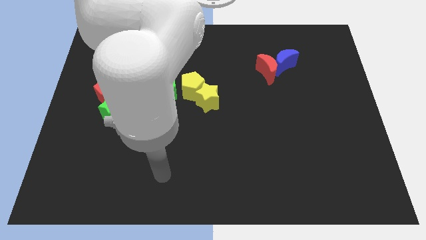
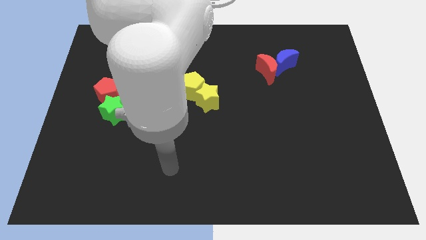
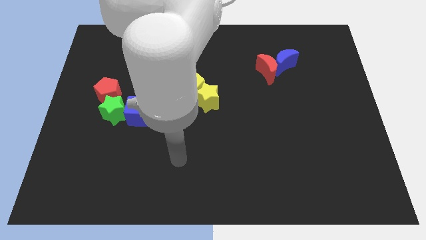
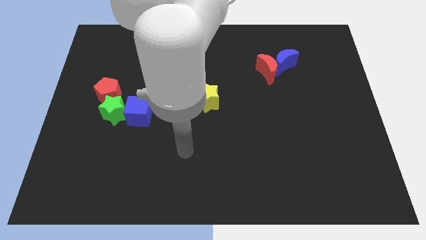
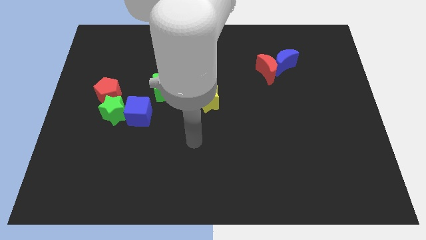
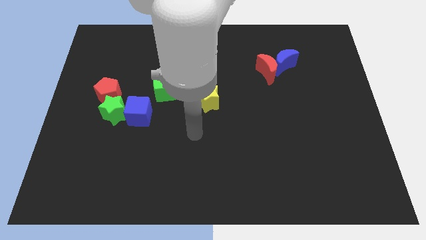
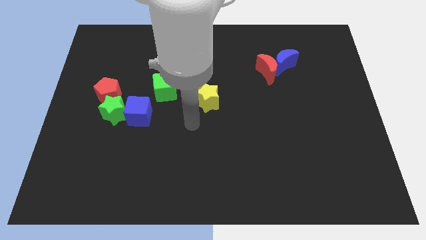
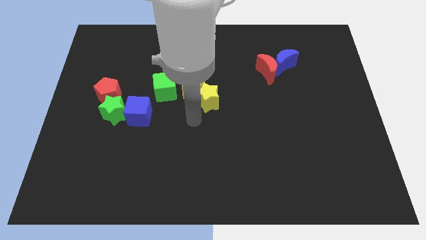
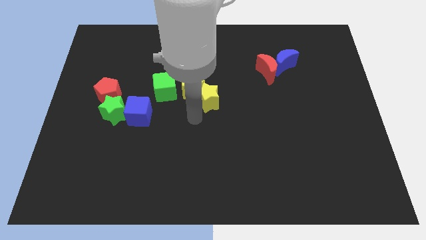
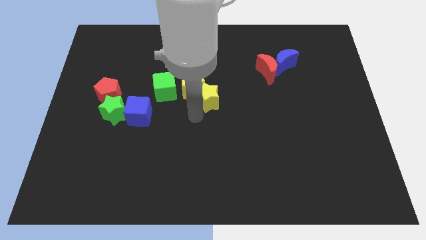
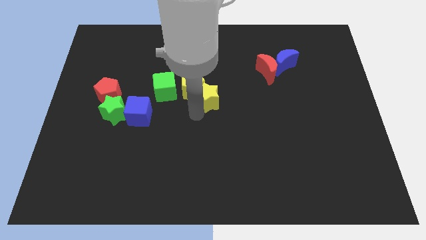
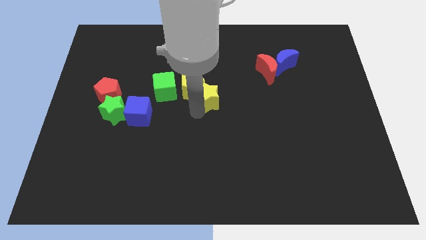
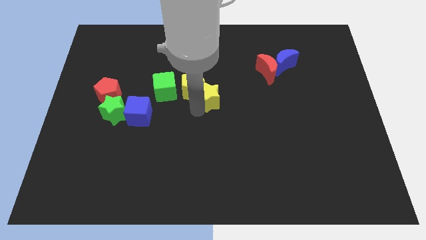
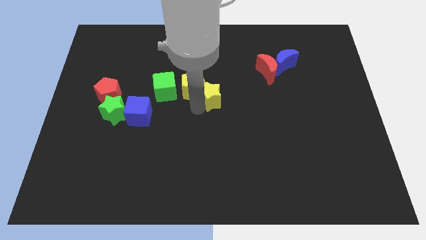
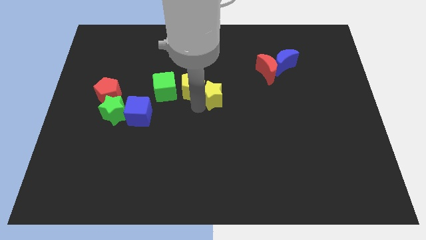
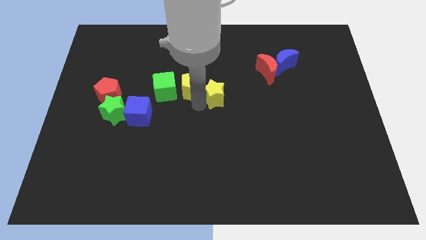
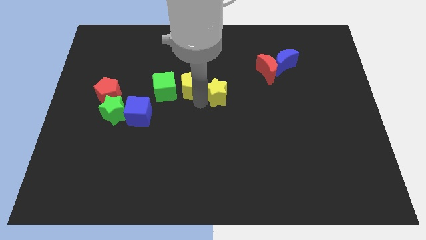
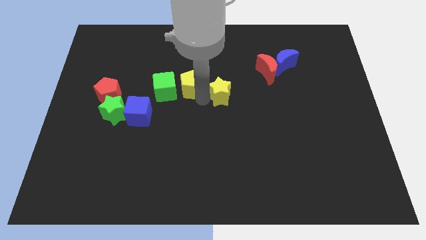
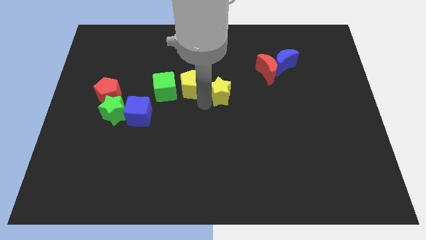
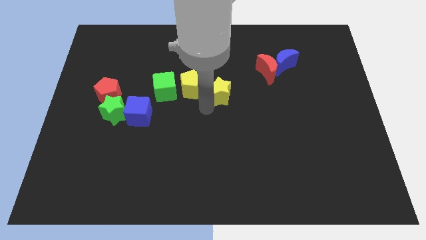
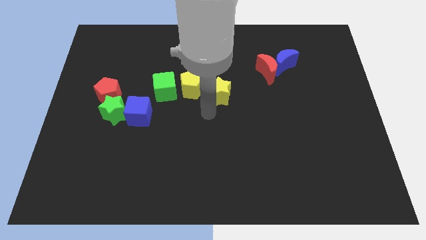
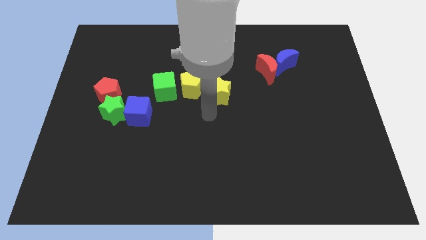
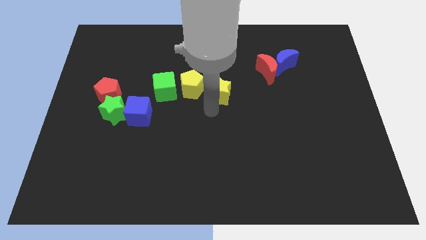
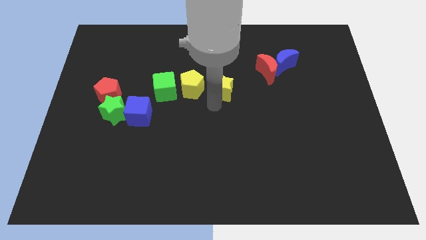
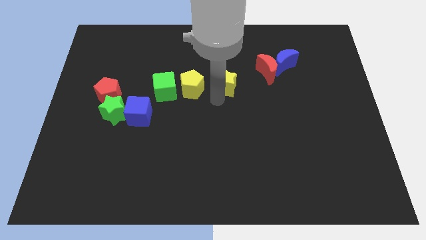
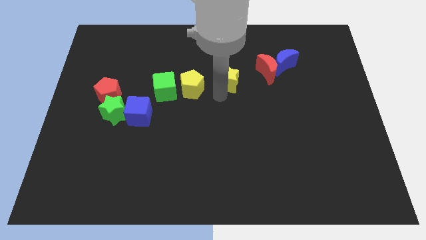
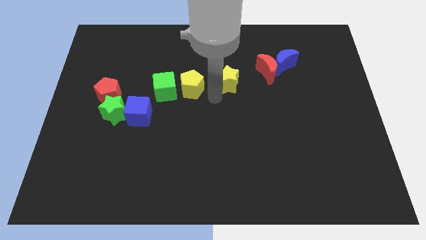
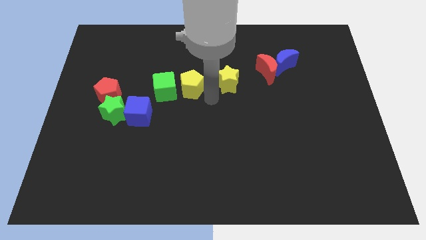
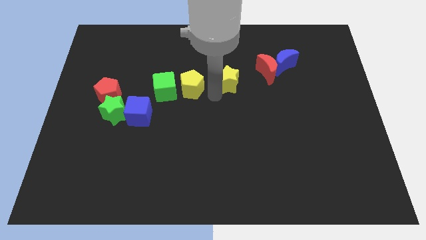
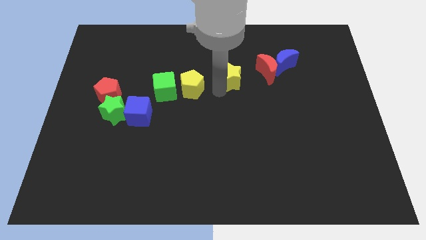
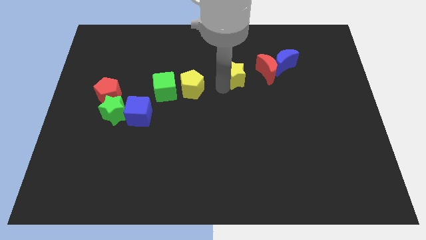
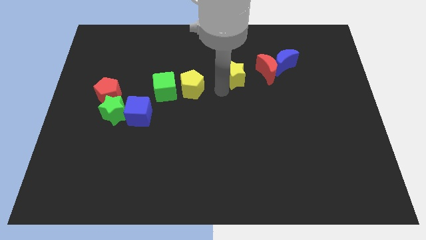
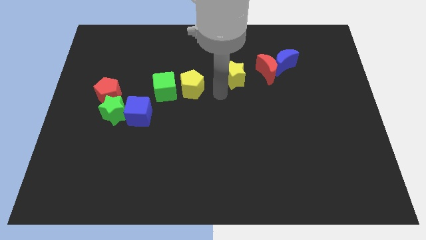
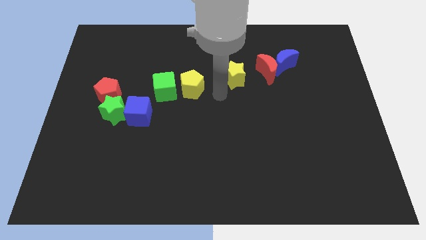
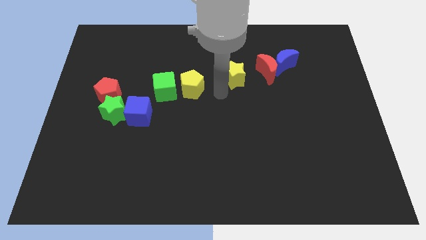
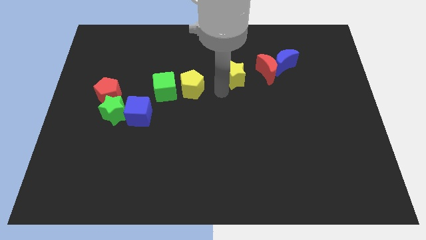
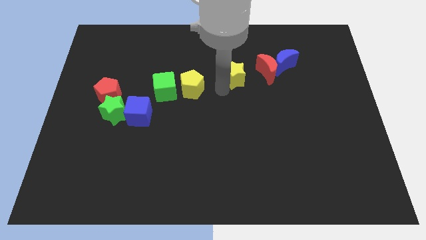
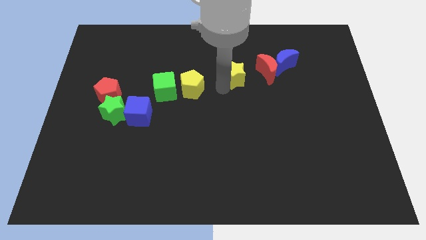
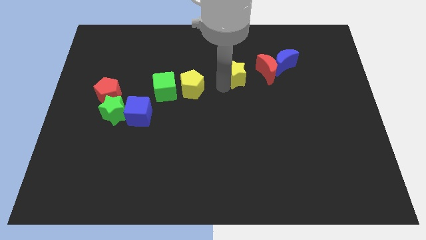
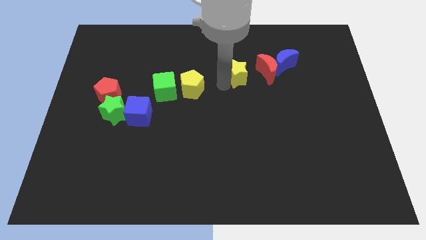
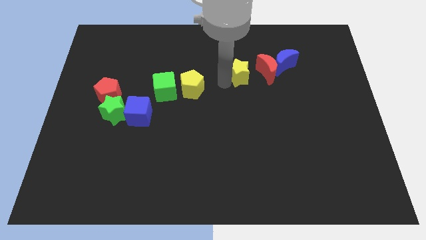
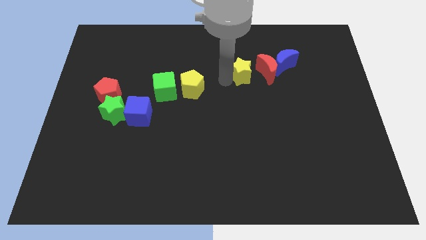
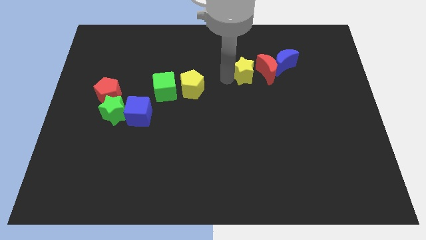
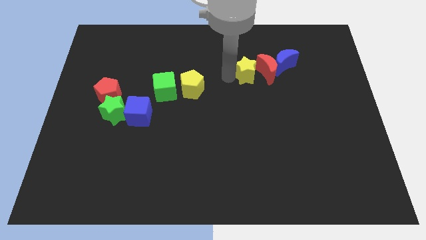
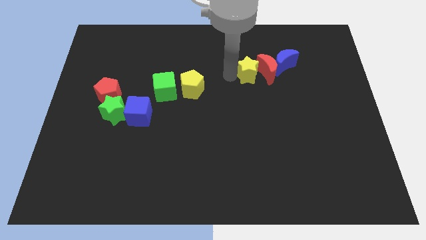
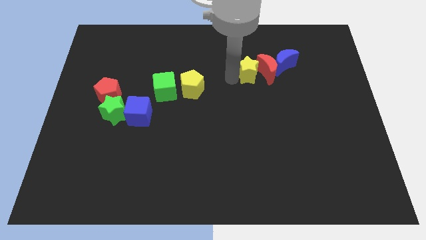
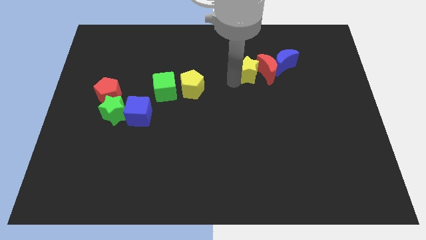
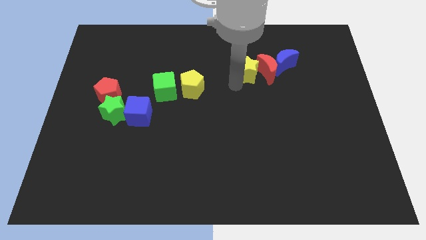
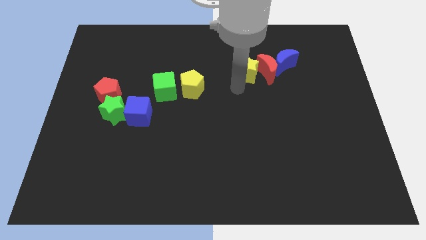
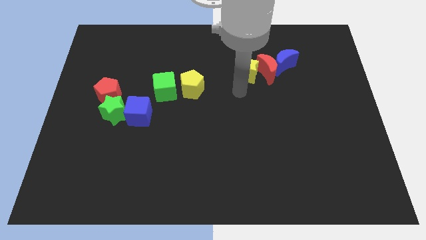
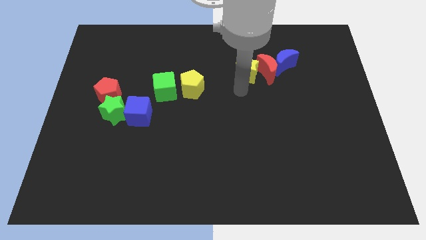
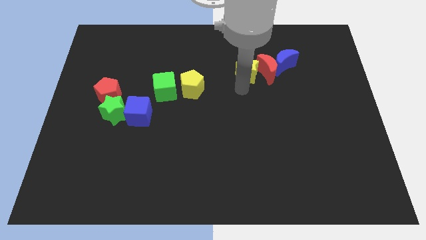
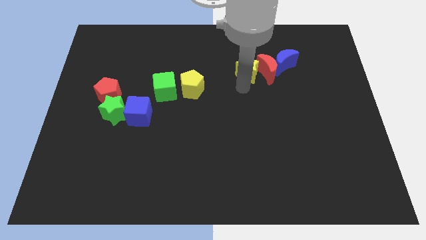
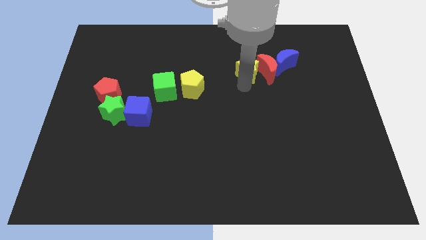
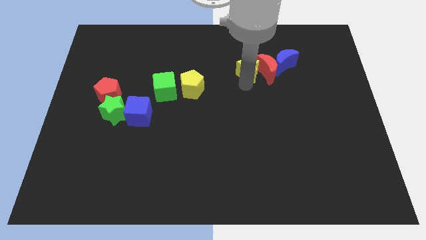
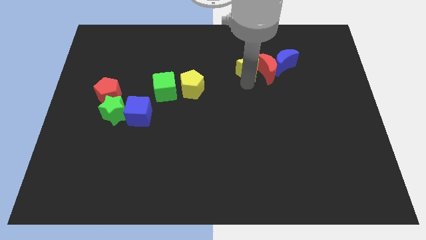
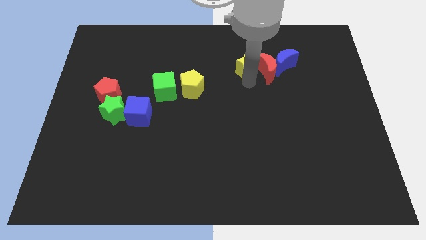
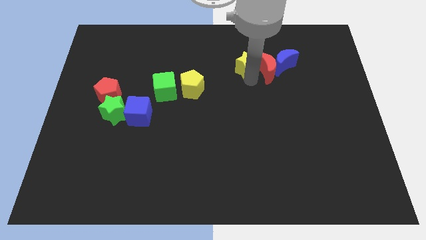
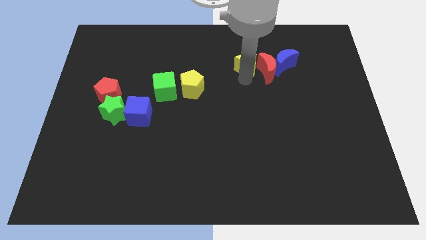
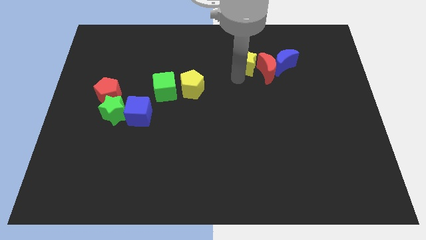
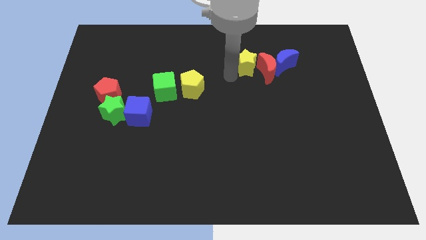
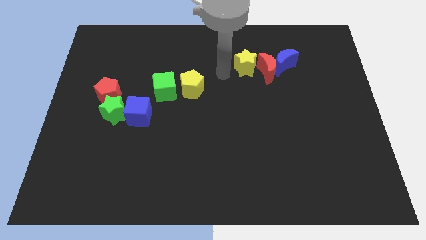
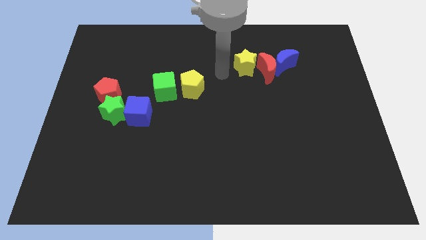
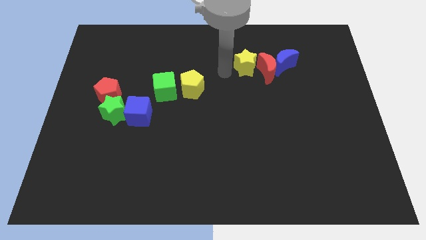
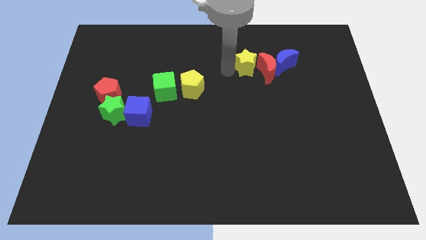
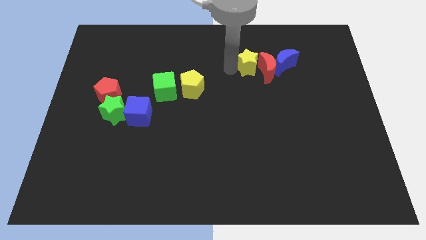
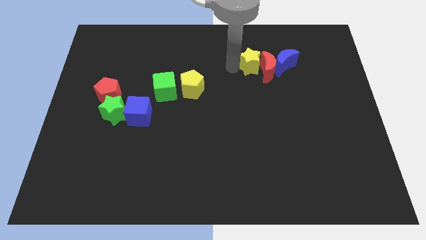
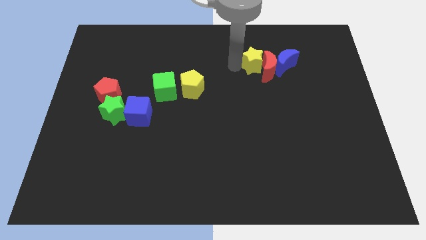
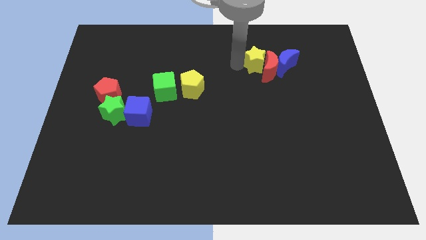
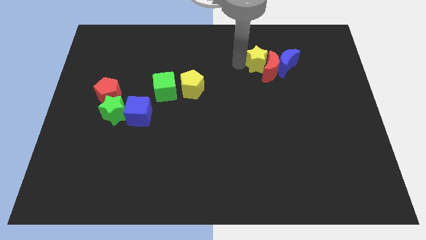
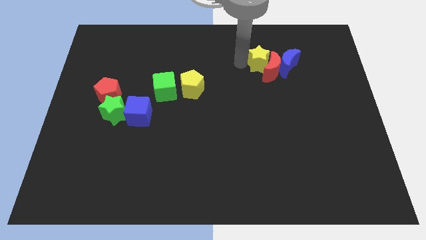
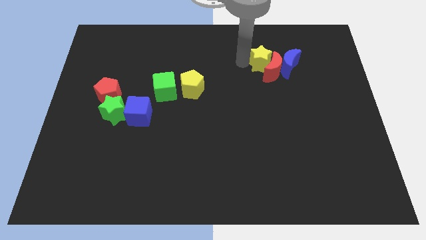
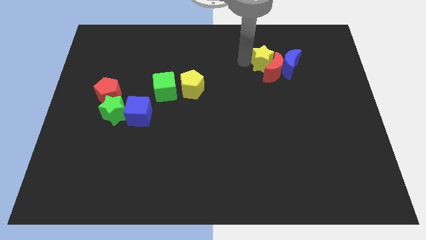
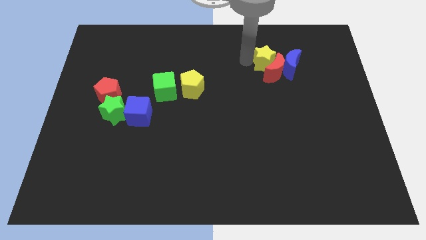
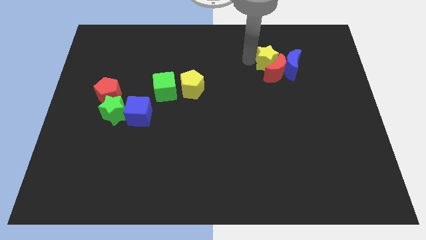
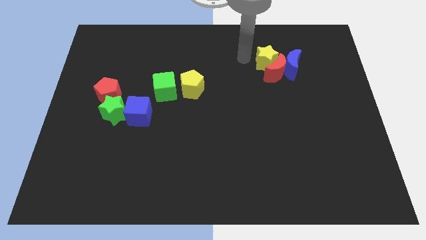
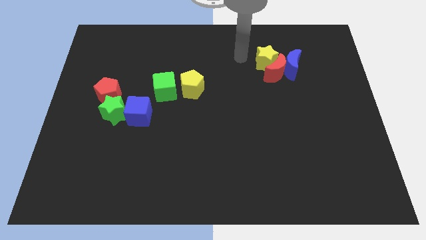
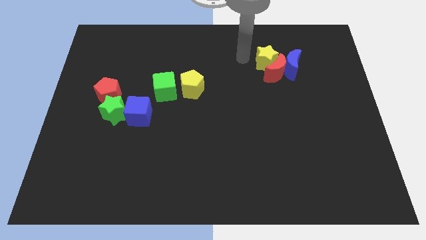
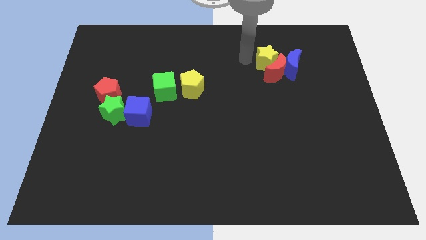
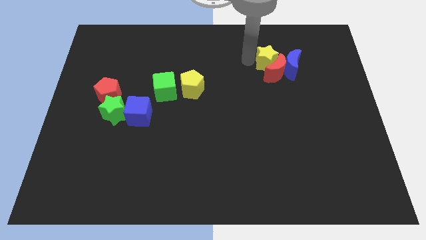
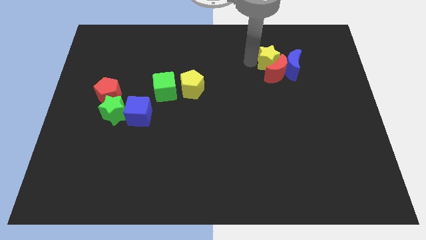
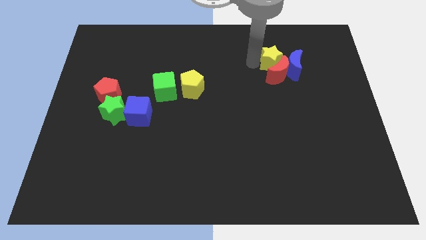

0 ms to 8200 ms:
move the yellow star to the blue moon
